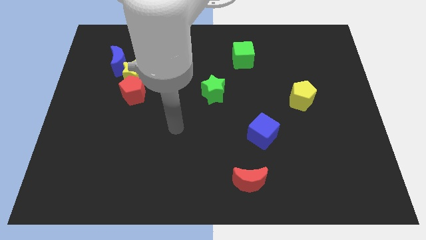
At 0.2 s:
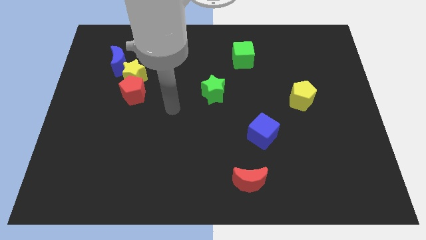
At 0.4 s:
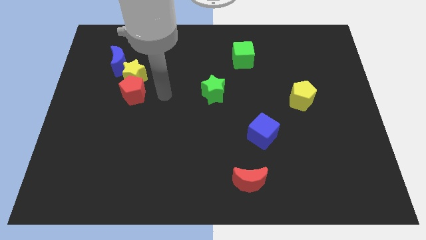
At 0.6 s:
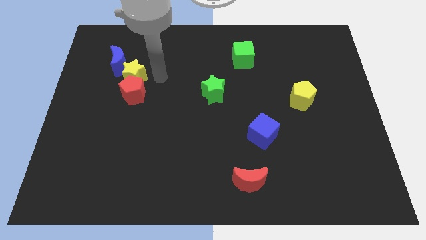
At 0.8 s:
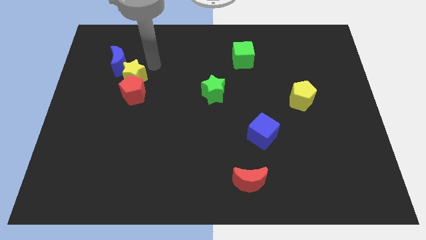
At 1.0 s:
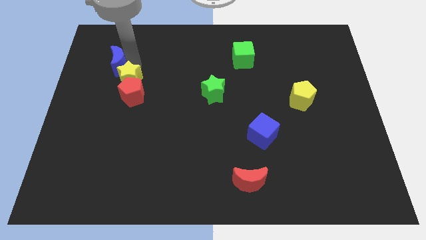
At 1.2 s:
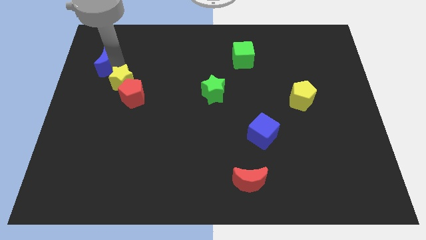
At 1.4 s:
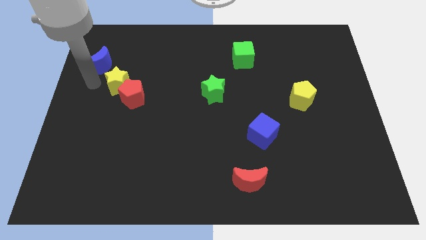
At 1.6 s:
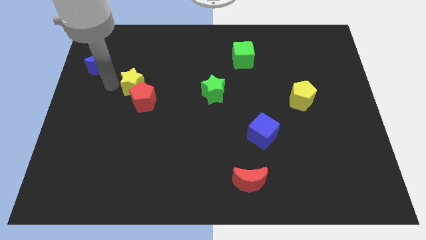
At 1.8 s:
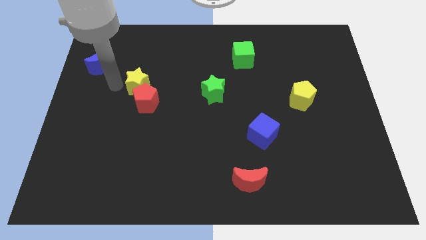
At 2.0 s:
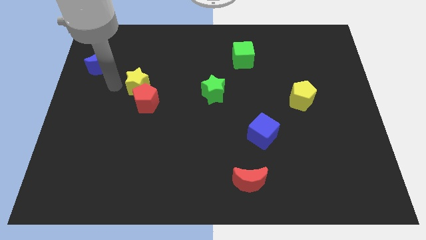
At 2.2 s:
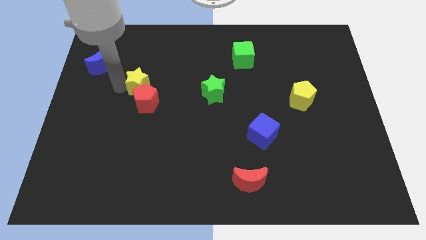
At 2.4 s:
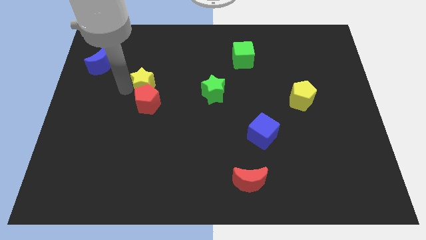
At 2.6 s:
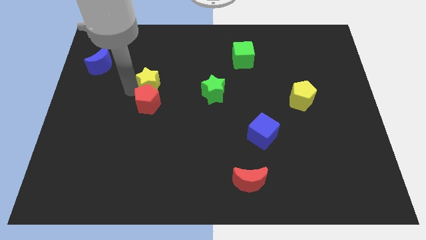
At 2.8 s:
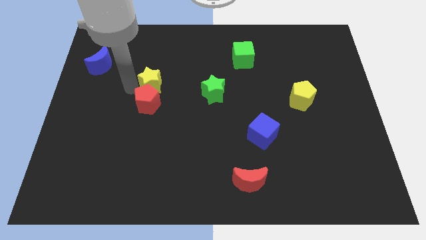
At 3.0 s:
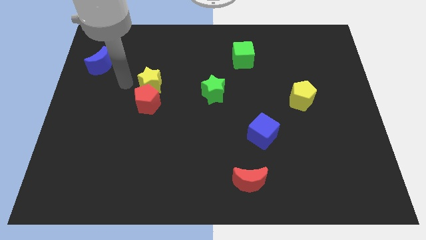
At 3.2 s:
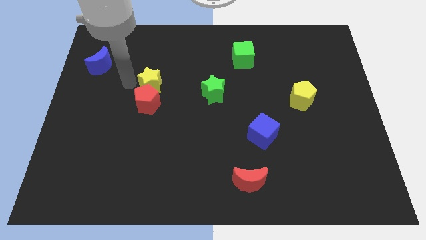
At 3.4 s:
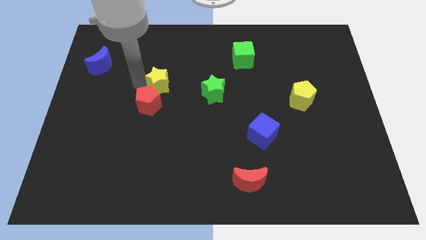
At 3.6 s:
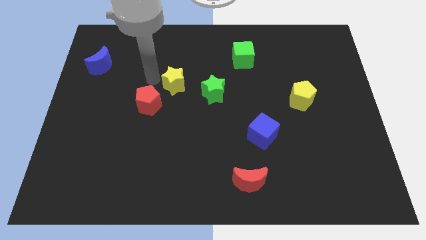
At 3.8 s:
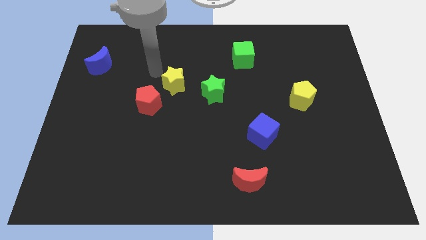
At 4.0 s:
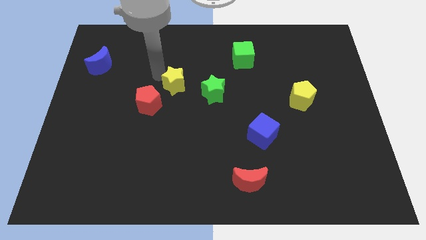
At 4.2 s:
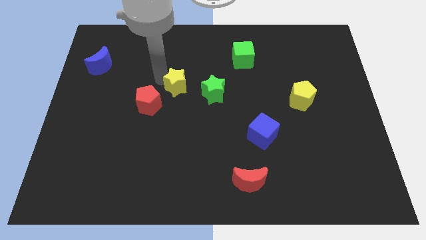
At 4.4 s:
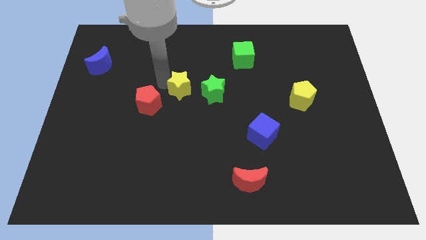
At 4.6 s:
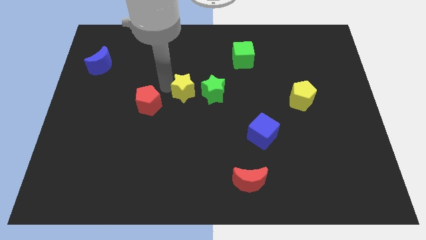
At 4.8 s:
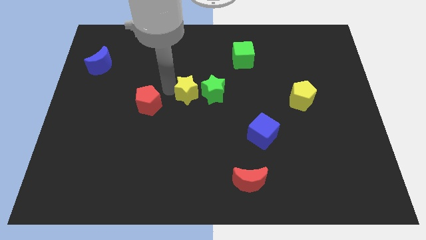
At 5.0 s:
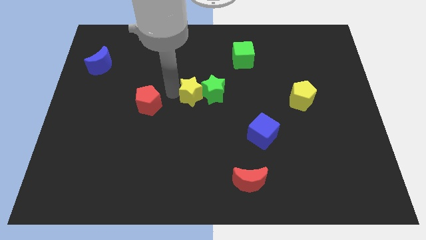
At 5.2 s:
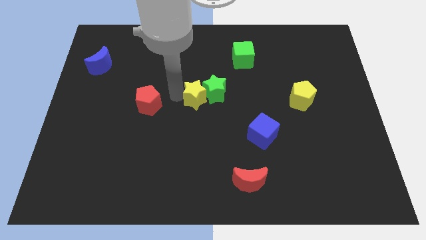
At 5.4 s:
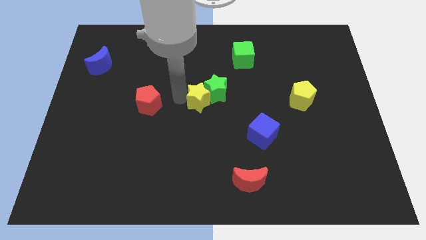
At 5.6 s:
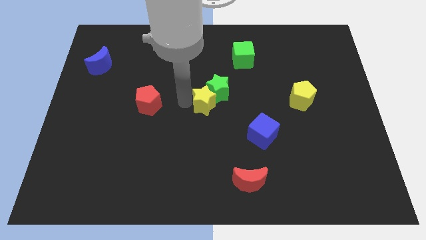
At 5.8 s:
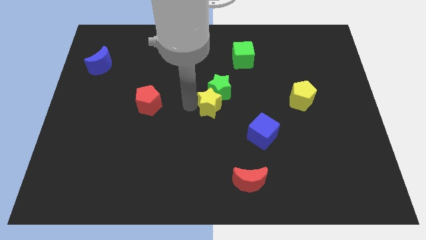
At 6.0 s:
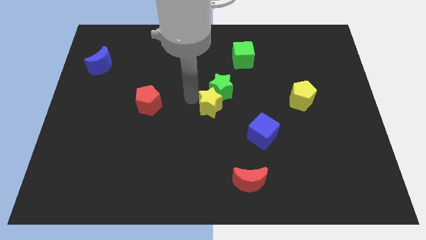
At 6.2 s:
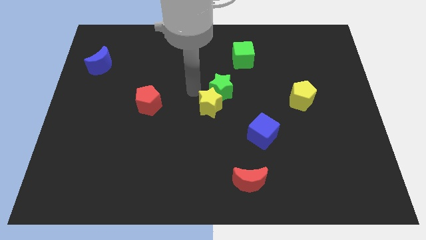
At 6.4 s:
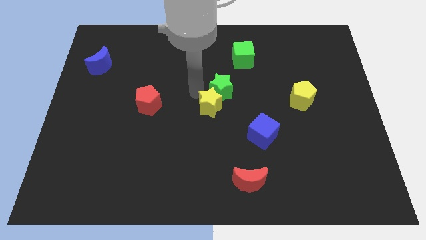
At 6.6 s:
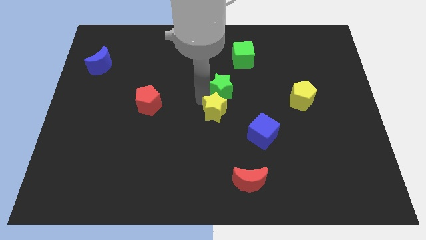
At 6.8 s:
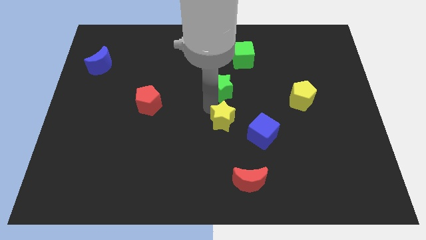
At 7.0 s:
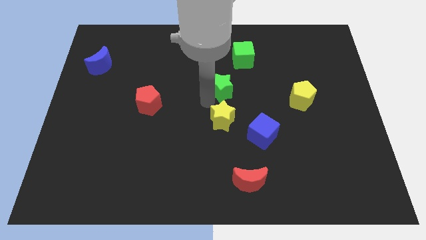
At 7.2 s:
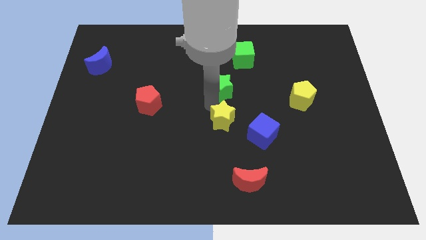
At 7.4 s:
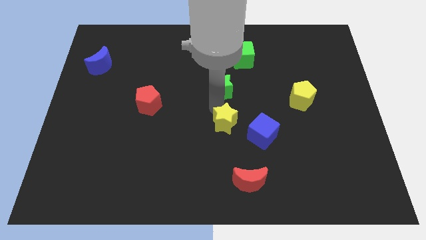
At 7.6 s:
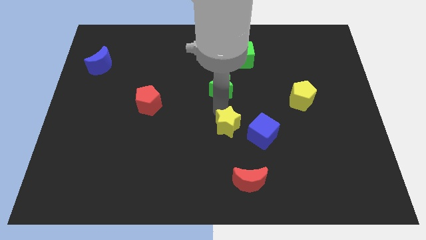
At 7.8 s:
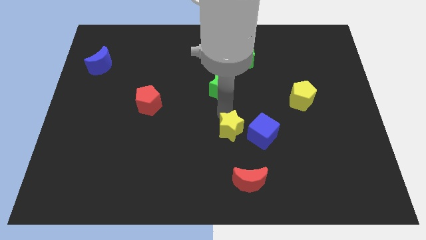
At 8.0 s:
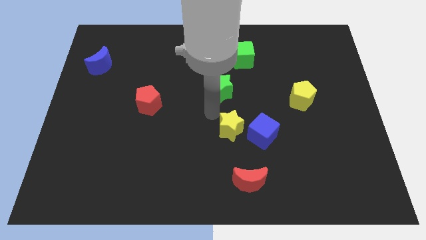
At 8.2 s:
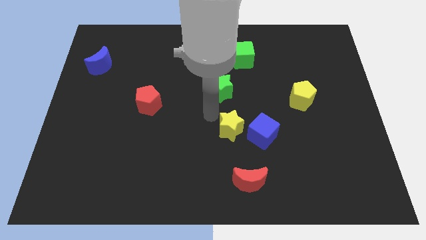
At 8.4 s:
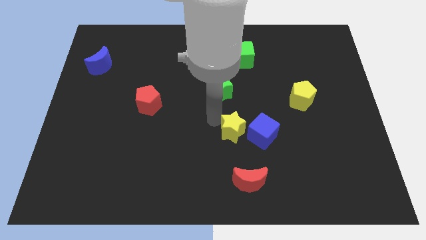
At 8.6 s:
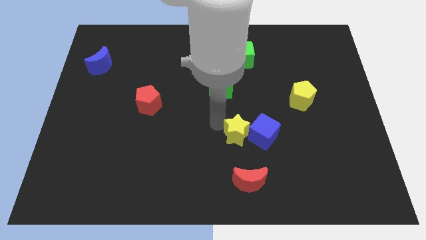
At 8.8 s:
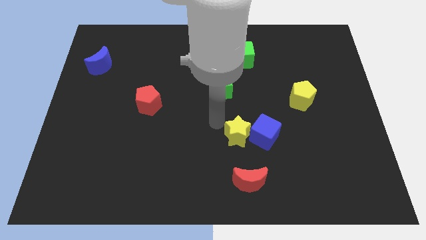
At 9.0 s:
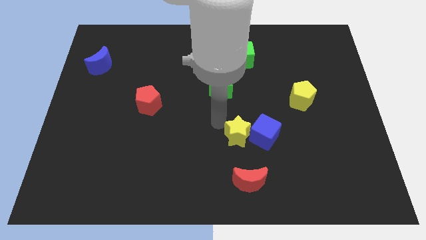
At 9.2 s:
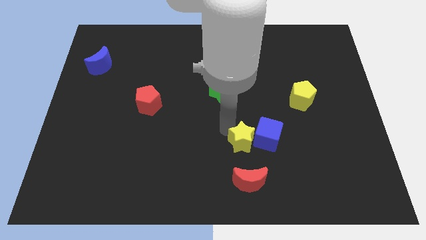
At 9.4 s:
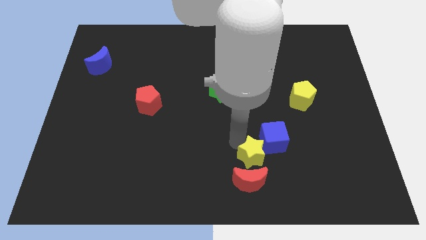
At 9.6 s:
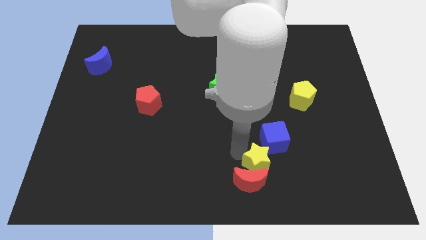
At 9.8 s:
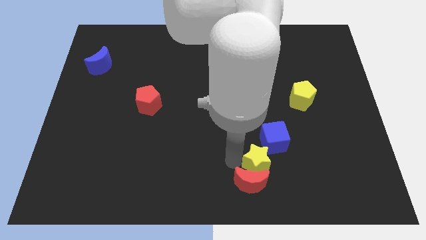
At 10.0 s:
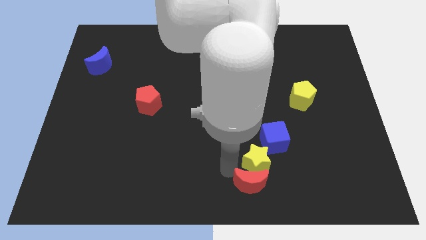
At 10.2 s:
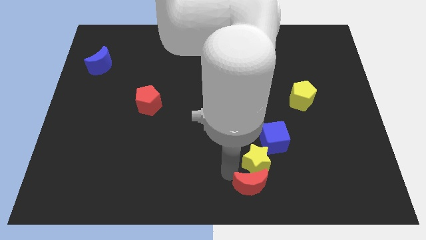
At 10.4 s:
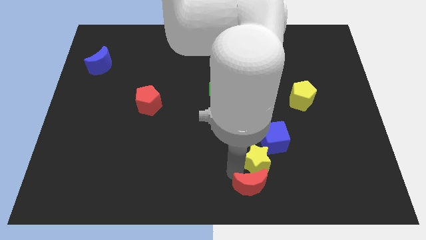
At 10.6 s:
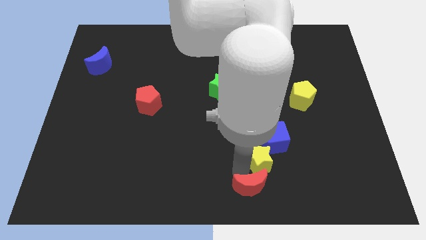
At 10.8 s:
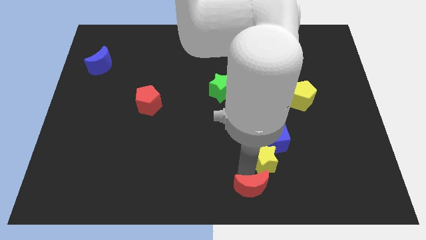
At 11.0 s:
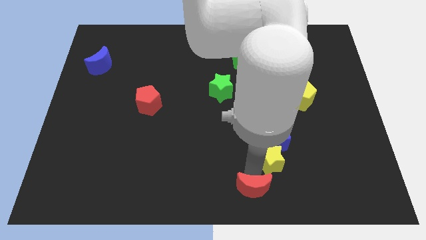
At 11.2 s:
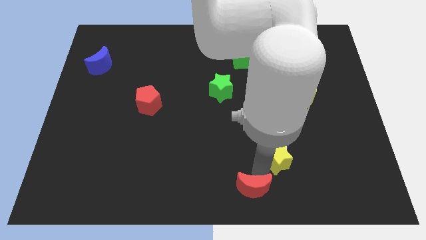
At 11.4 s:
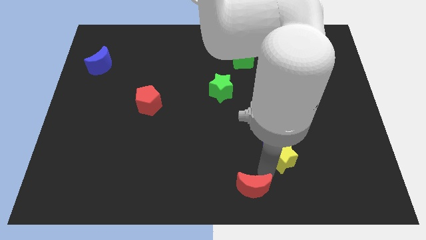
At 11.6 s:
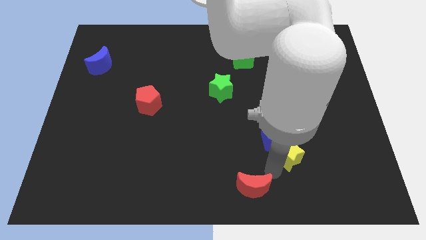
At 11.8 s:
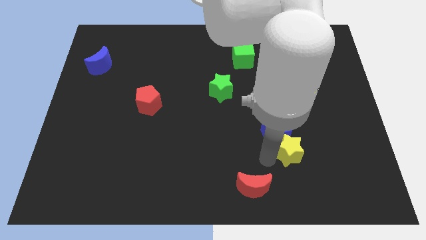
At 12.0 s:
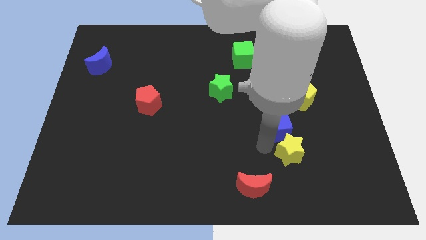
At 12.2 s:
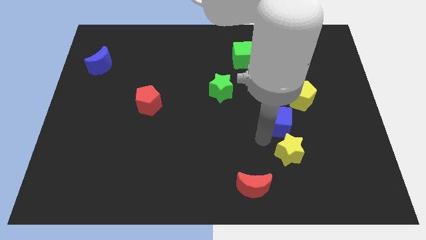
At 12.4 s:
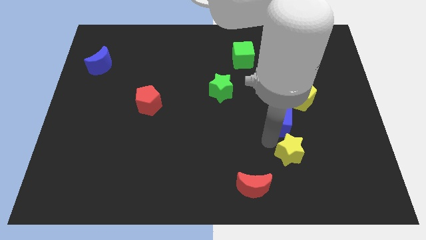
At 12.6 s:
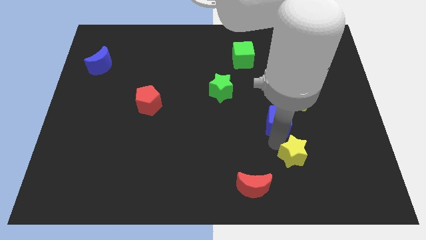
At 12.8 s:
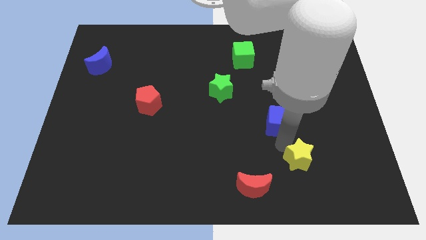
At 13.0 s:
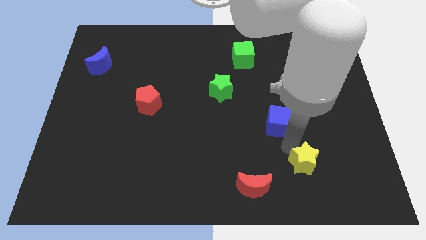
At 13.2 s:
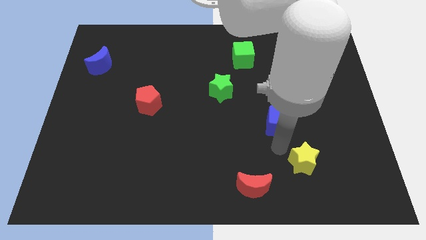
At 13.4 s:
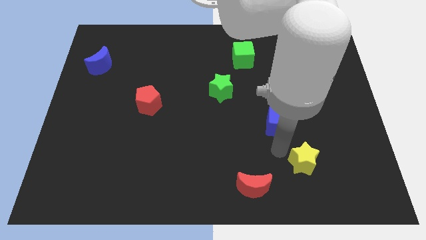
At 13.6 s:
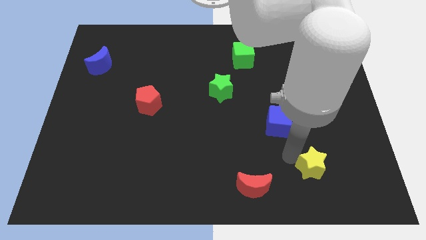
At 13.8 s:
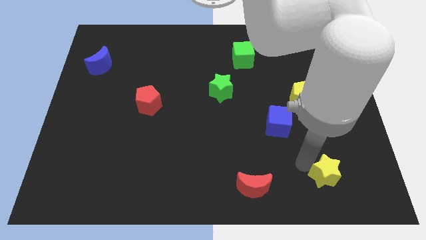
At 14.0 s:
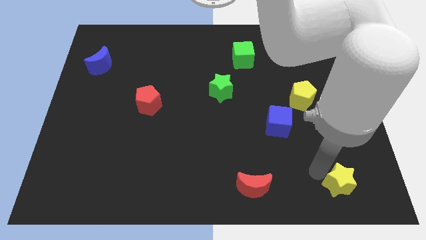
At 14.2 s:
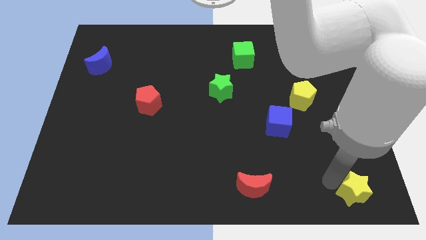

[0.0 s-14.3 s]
move the yellow star to the bottom right of the board
